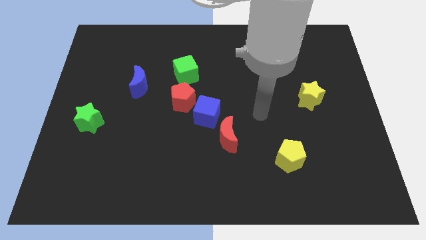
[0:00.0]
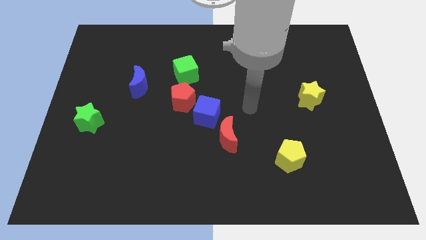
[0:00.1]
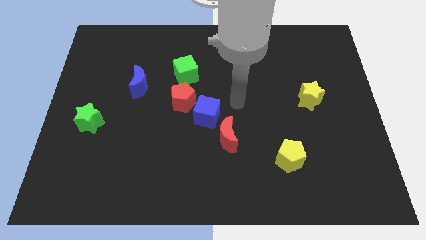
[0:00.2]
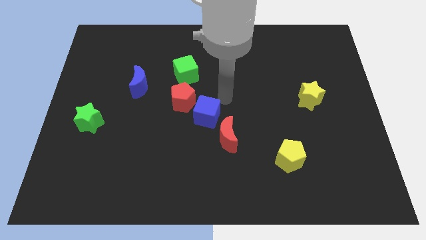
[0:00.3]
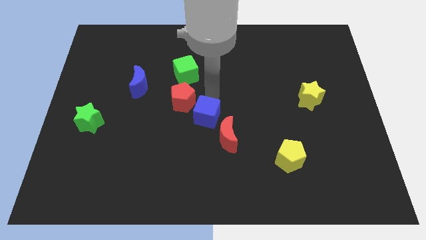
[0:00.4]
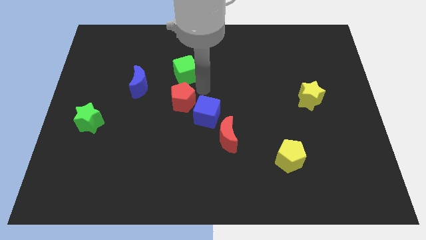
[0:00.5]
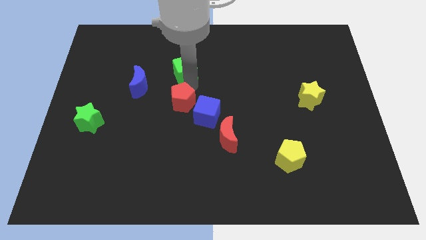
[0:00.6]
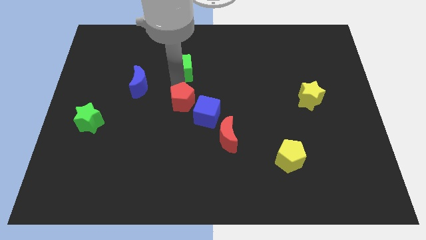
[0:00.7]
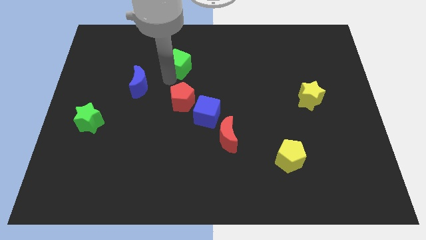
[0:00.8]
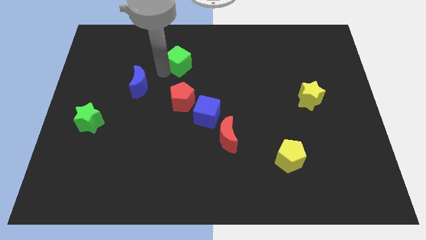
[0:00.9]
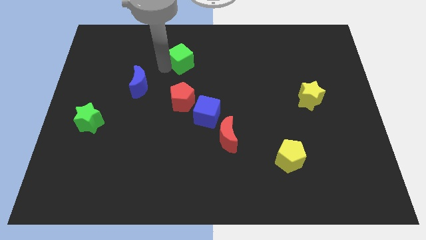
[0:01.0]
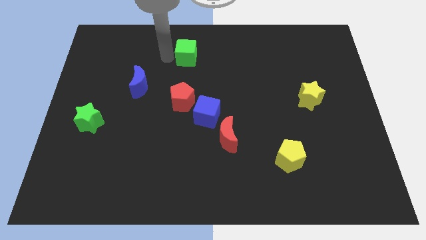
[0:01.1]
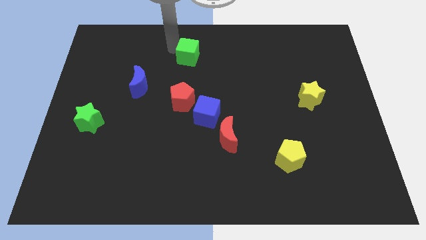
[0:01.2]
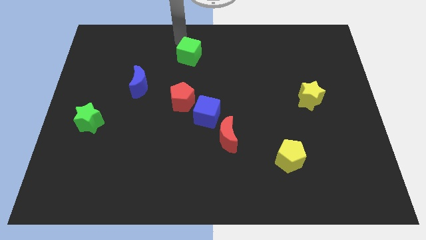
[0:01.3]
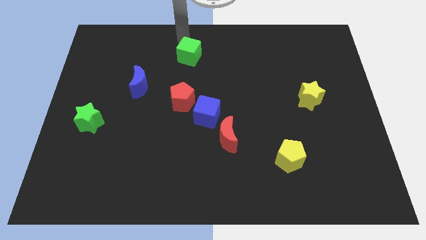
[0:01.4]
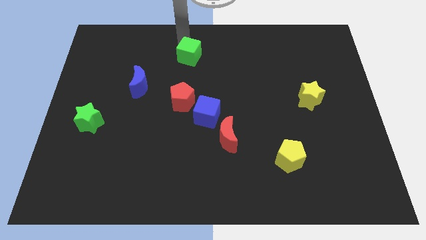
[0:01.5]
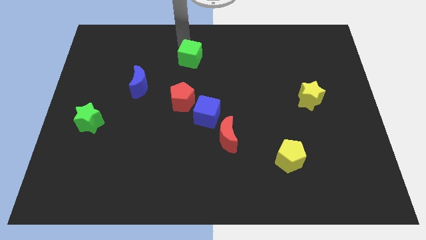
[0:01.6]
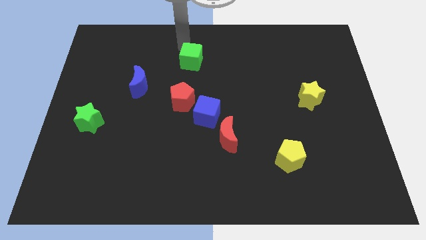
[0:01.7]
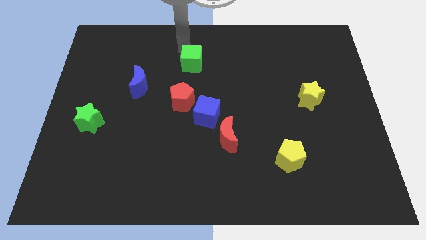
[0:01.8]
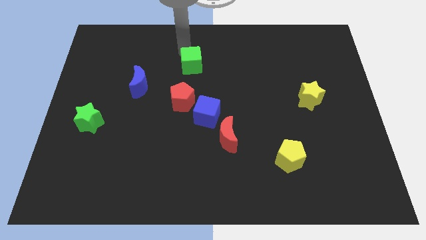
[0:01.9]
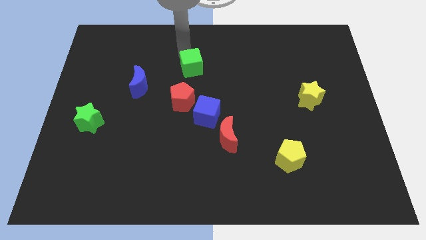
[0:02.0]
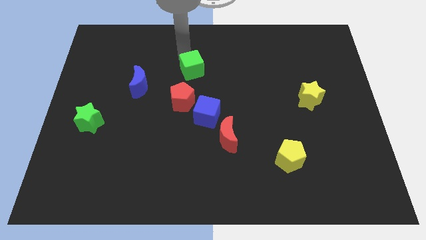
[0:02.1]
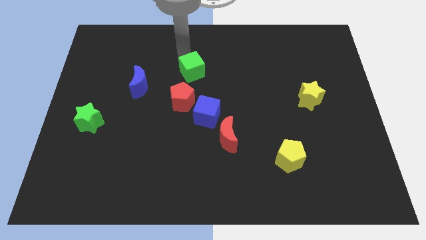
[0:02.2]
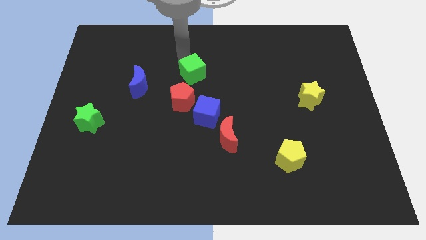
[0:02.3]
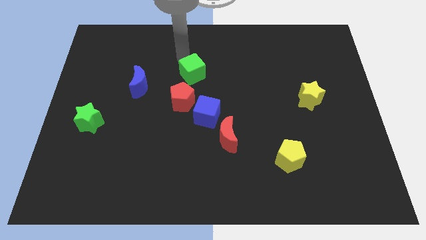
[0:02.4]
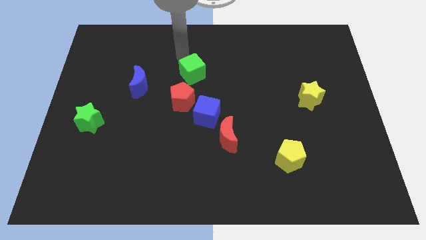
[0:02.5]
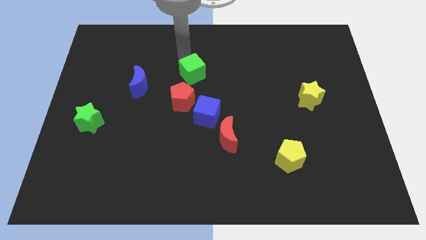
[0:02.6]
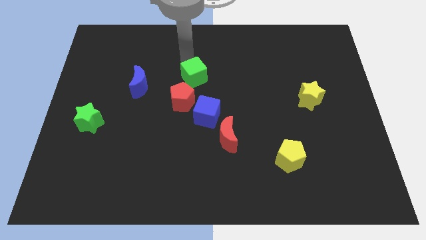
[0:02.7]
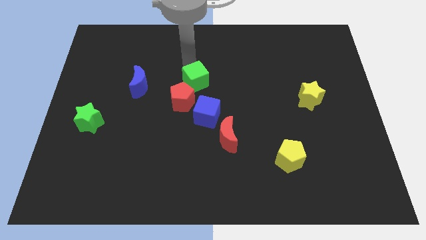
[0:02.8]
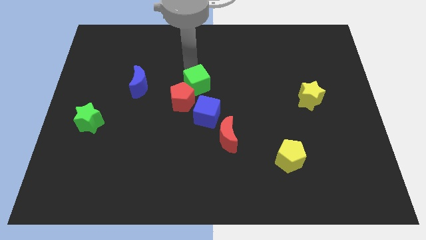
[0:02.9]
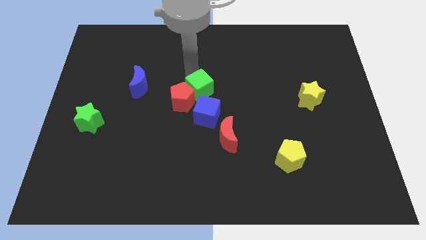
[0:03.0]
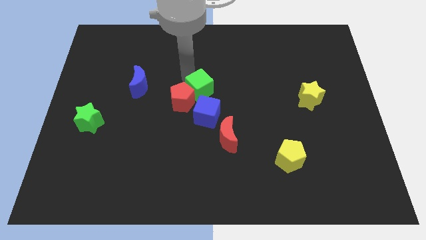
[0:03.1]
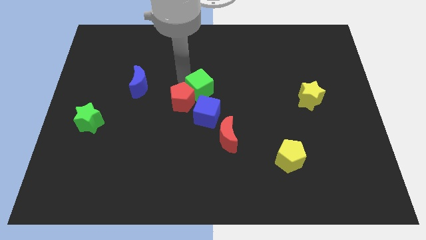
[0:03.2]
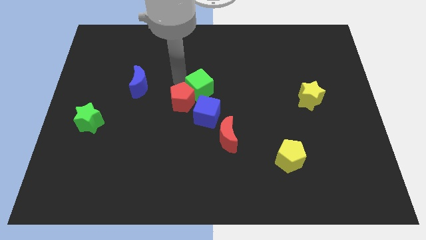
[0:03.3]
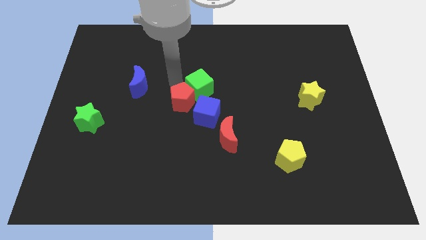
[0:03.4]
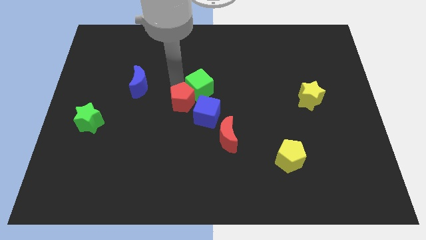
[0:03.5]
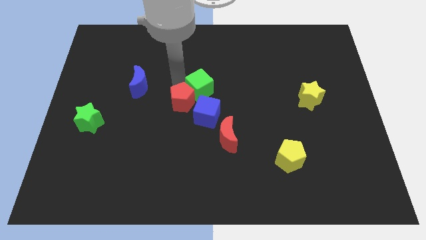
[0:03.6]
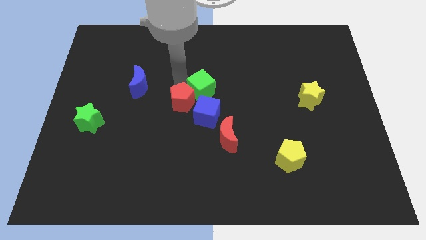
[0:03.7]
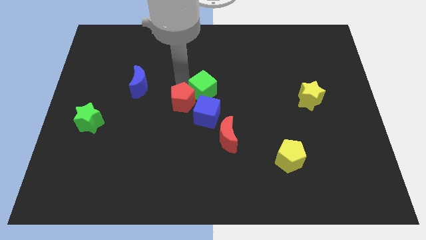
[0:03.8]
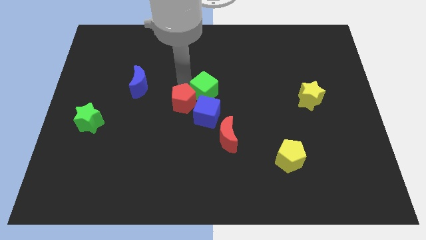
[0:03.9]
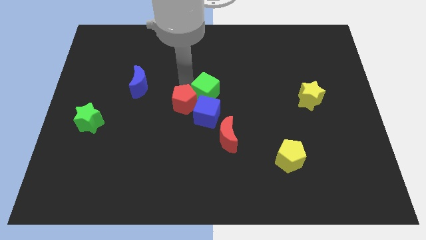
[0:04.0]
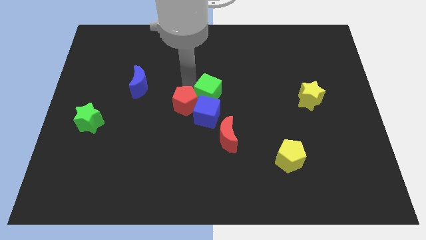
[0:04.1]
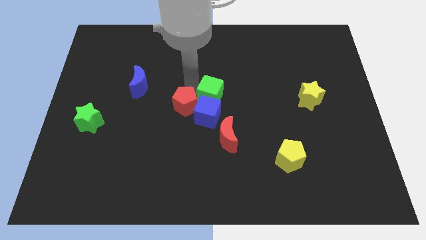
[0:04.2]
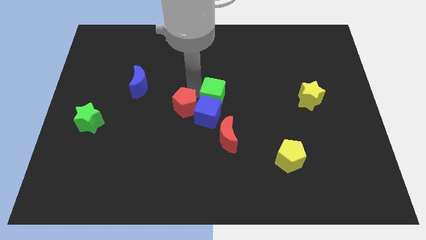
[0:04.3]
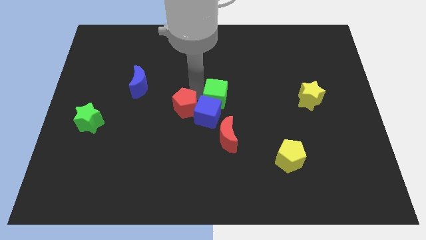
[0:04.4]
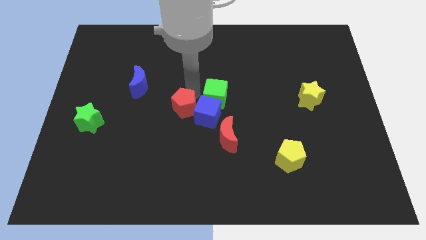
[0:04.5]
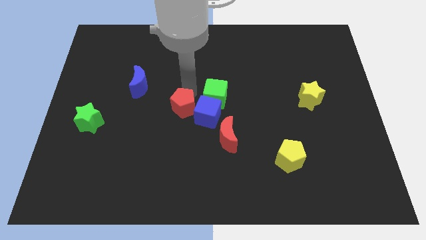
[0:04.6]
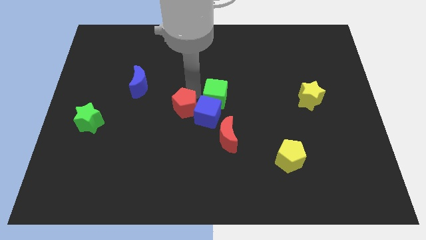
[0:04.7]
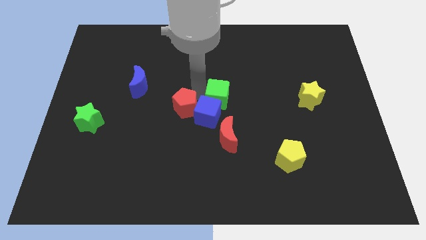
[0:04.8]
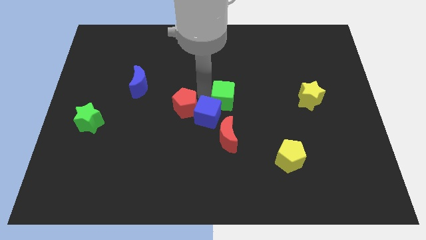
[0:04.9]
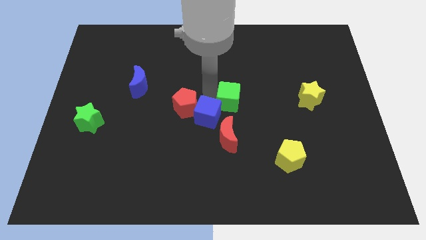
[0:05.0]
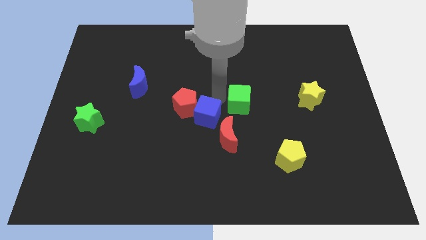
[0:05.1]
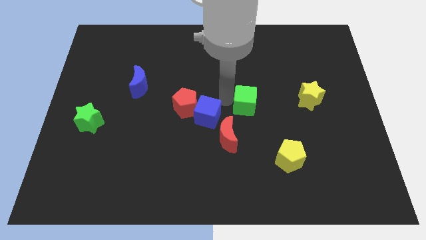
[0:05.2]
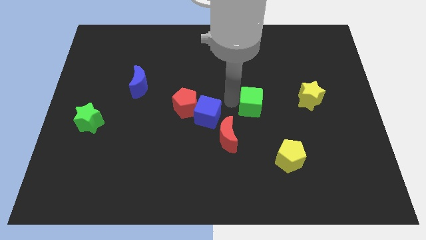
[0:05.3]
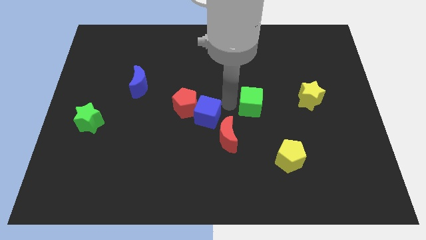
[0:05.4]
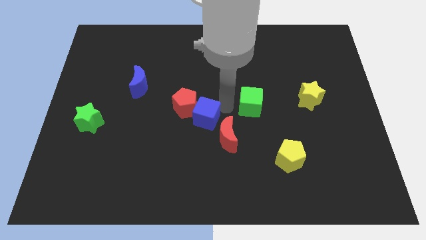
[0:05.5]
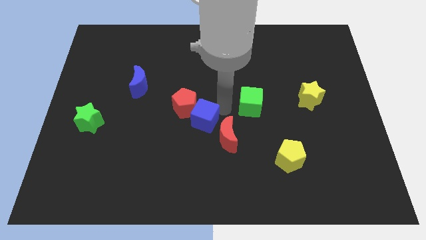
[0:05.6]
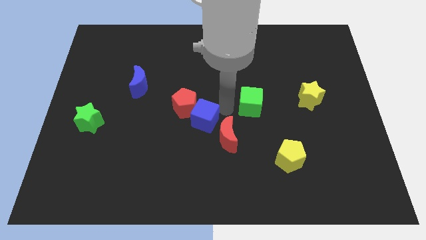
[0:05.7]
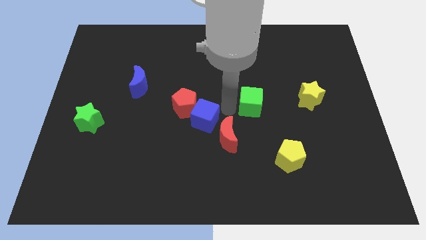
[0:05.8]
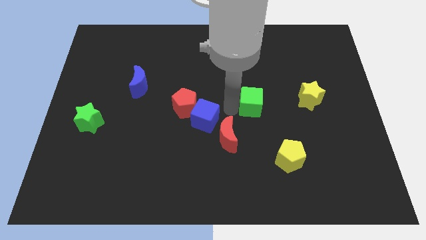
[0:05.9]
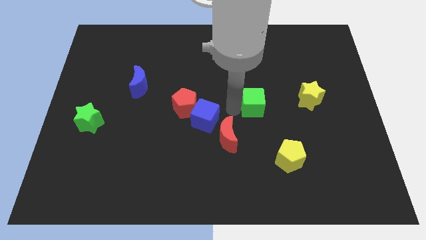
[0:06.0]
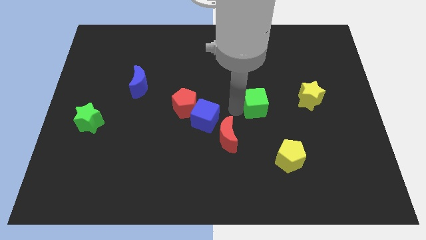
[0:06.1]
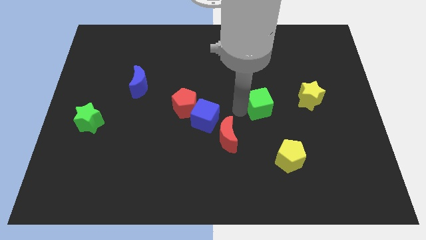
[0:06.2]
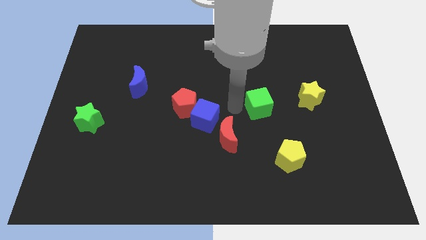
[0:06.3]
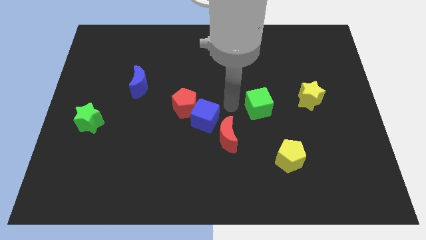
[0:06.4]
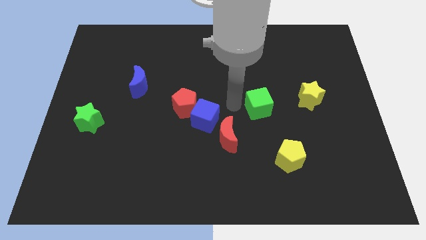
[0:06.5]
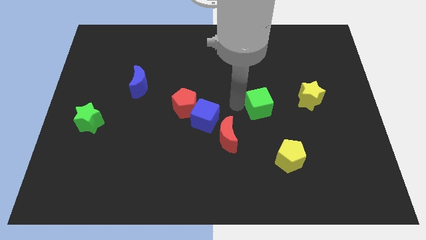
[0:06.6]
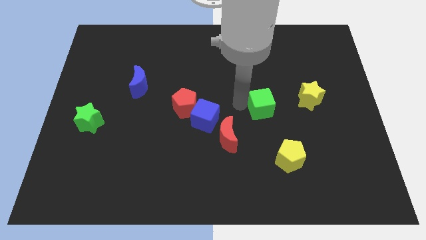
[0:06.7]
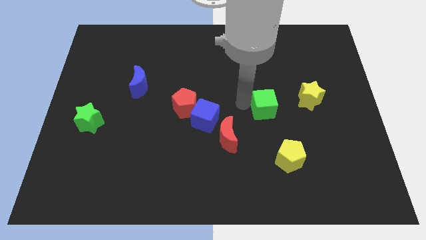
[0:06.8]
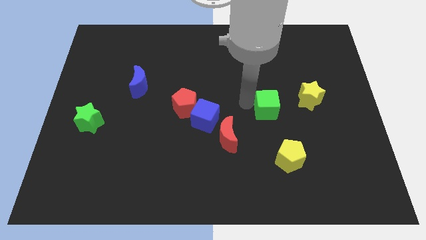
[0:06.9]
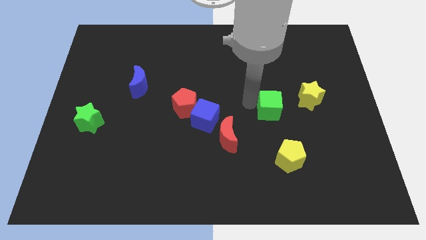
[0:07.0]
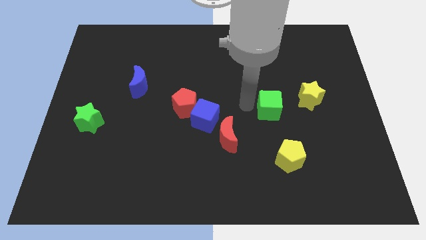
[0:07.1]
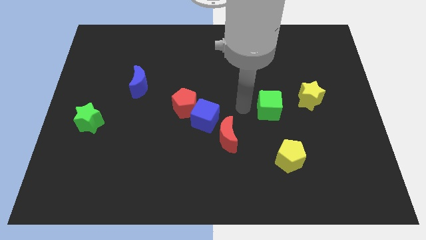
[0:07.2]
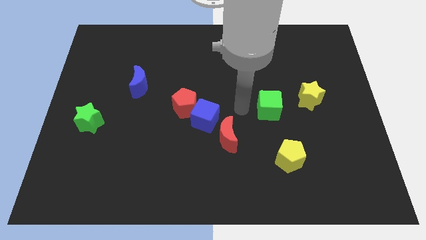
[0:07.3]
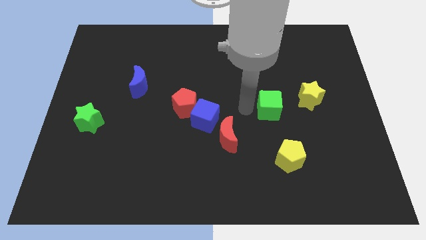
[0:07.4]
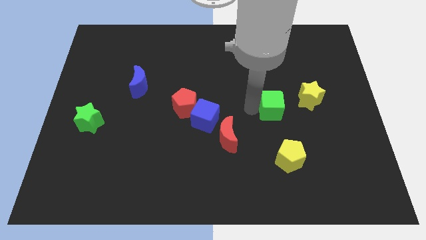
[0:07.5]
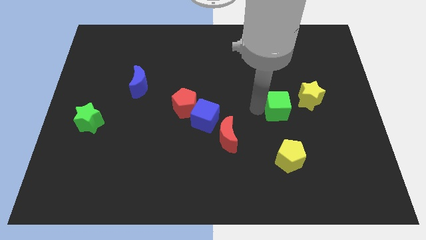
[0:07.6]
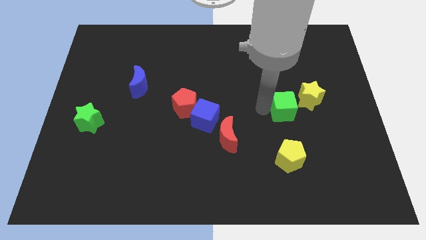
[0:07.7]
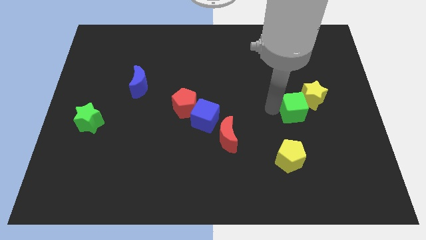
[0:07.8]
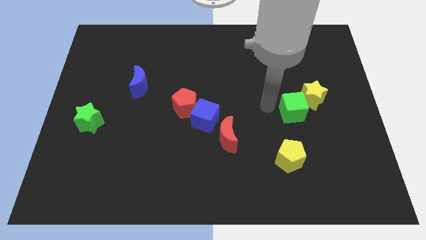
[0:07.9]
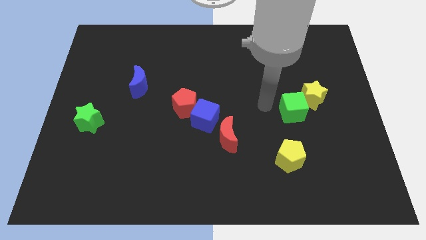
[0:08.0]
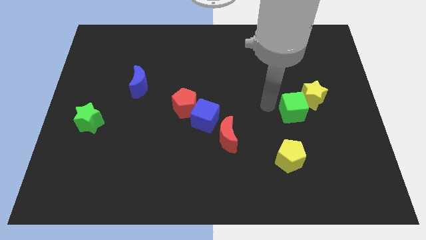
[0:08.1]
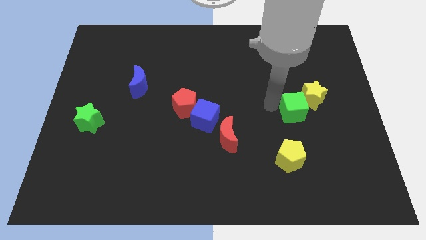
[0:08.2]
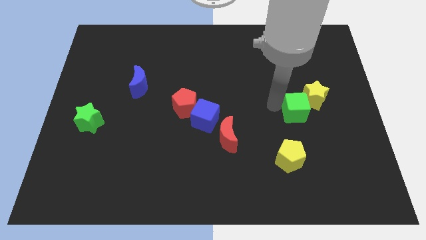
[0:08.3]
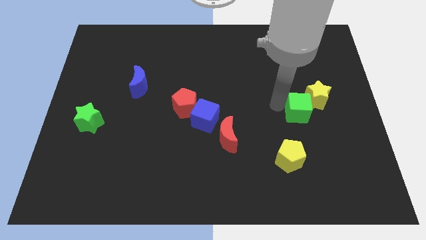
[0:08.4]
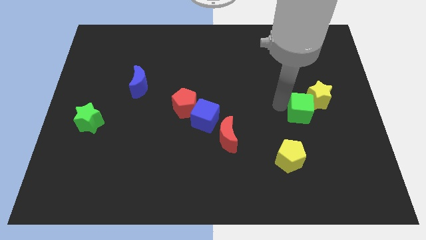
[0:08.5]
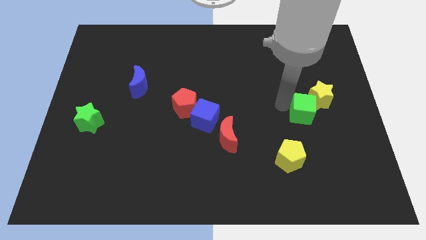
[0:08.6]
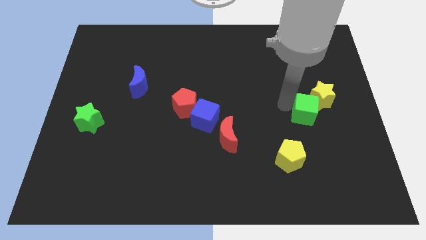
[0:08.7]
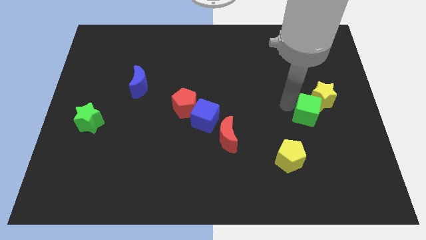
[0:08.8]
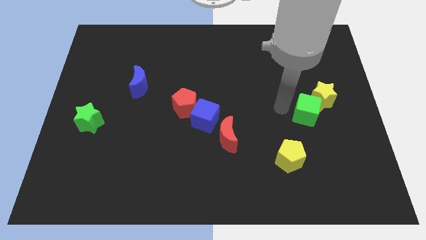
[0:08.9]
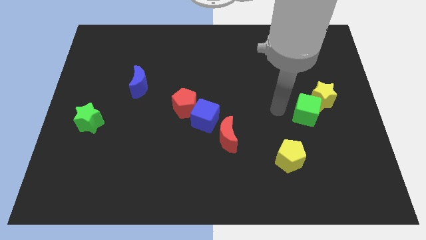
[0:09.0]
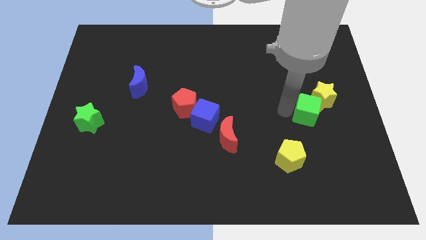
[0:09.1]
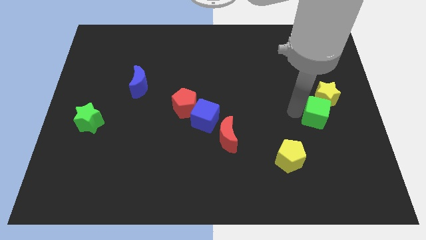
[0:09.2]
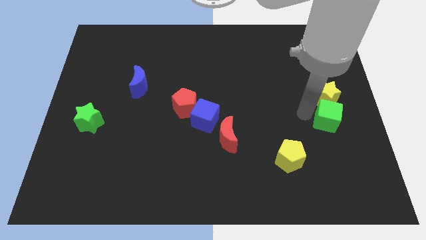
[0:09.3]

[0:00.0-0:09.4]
put the green cube diagonally down and to the right of the yellow star
